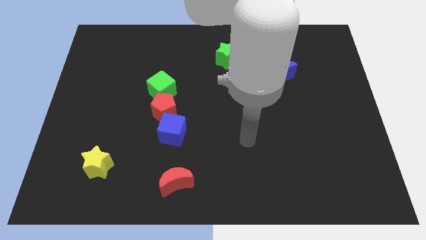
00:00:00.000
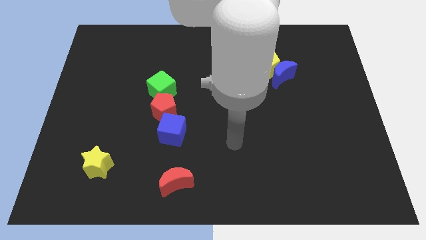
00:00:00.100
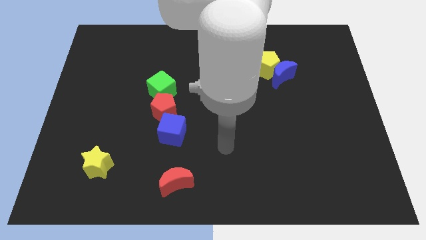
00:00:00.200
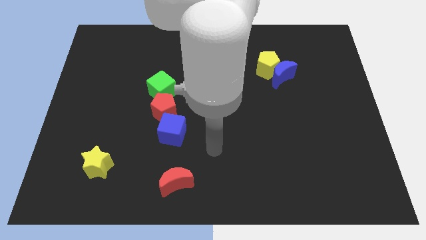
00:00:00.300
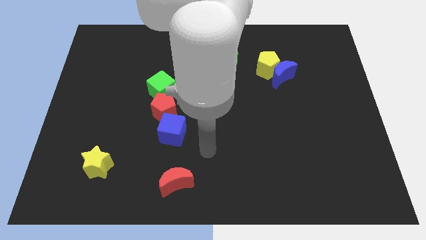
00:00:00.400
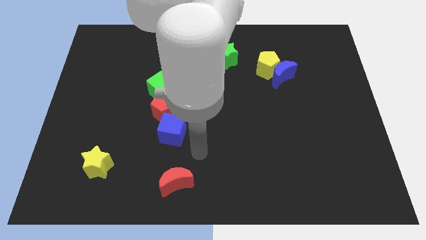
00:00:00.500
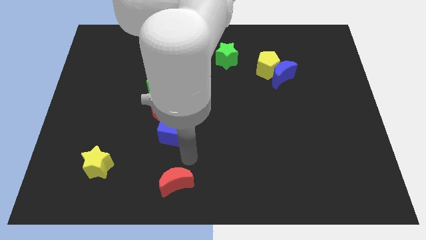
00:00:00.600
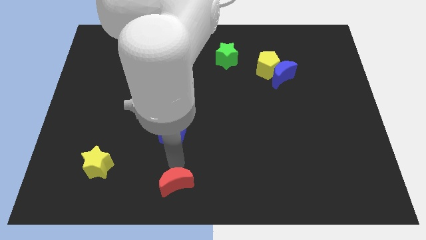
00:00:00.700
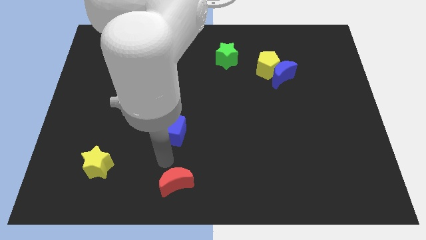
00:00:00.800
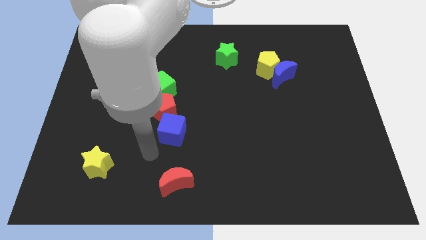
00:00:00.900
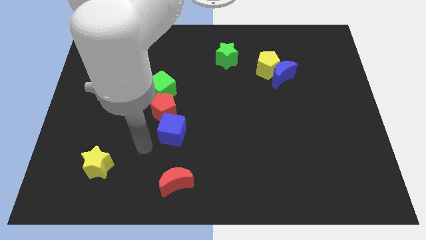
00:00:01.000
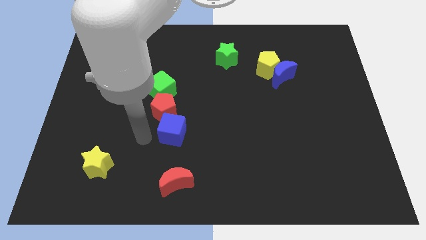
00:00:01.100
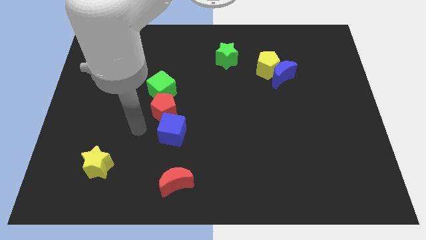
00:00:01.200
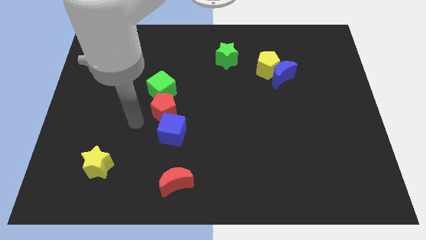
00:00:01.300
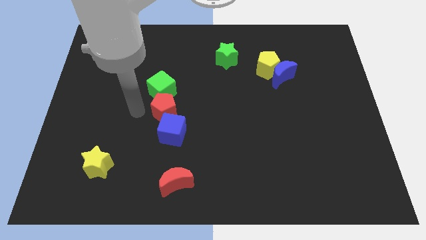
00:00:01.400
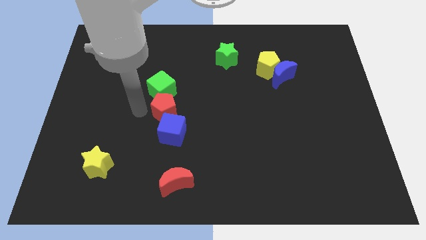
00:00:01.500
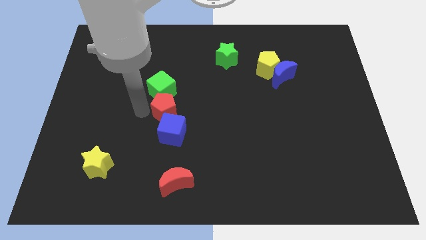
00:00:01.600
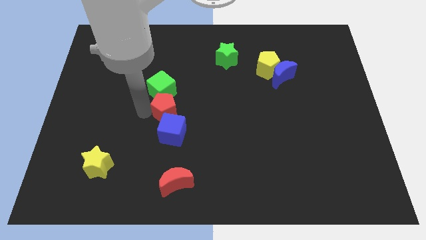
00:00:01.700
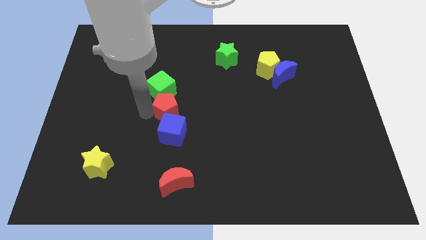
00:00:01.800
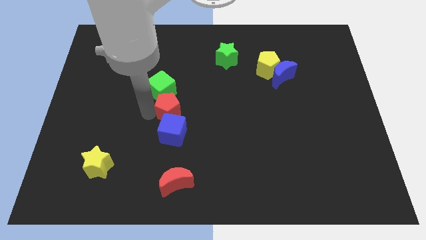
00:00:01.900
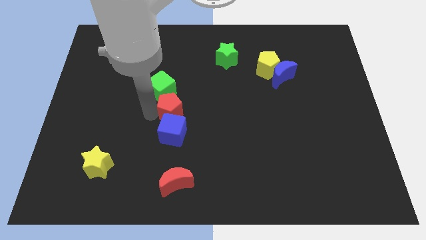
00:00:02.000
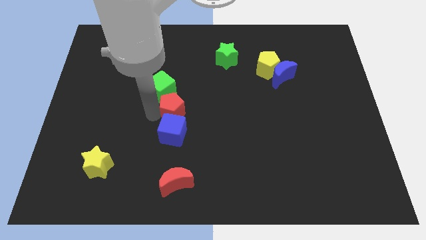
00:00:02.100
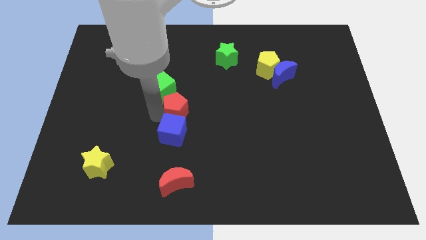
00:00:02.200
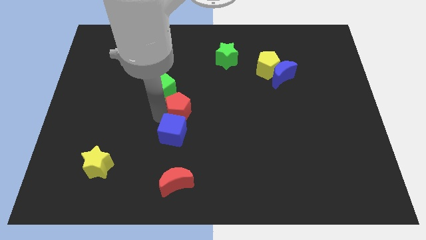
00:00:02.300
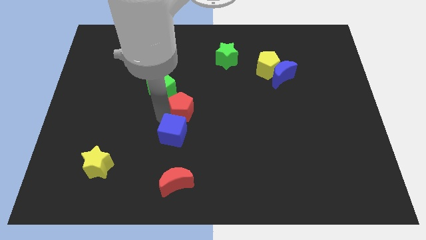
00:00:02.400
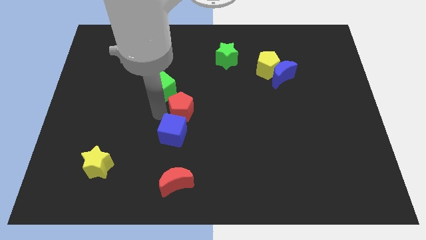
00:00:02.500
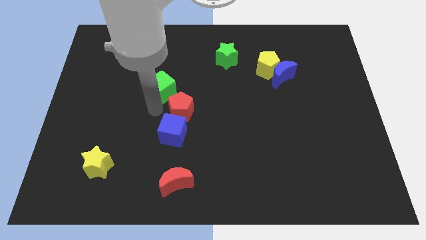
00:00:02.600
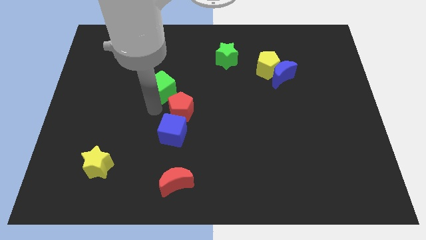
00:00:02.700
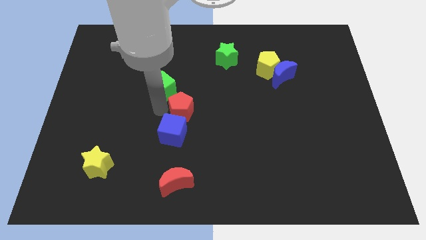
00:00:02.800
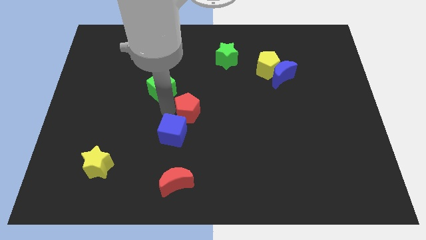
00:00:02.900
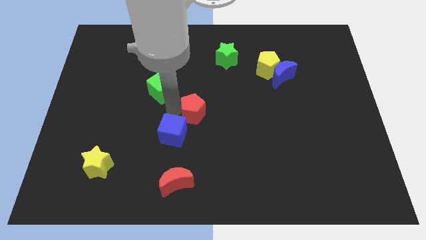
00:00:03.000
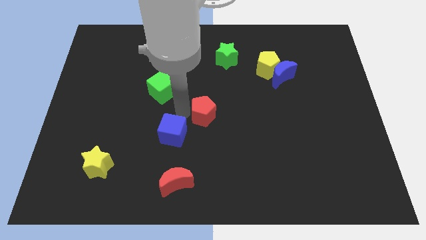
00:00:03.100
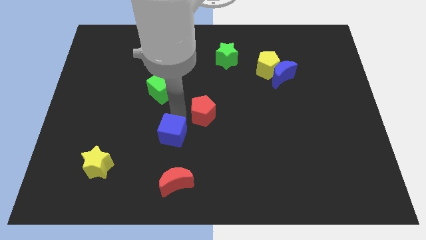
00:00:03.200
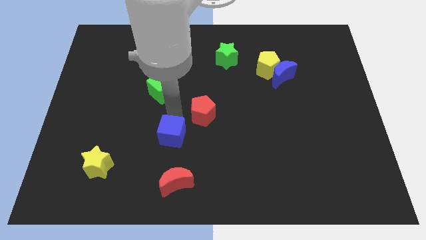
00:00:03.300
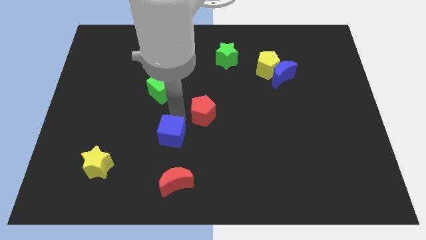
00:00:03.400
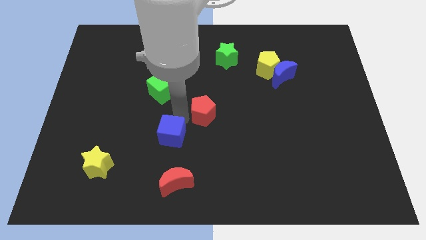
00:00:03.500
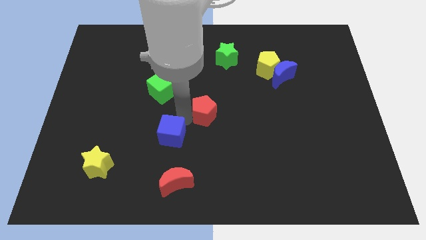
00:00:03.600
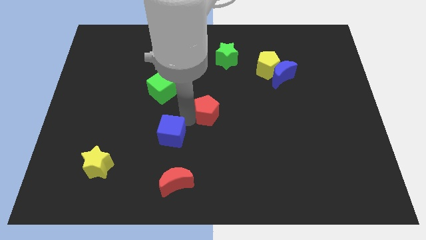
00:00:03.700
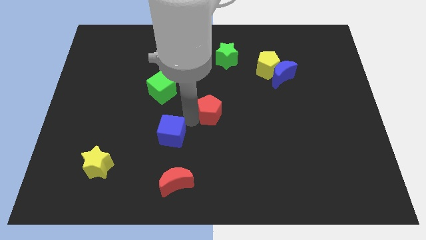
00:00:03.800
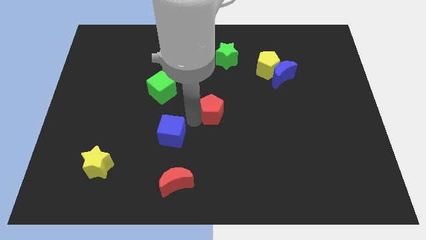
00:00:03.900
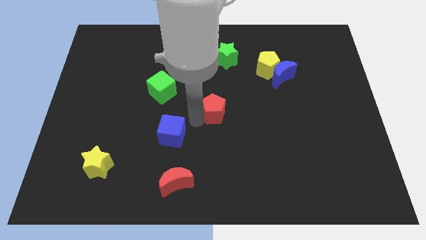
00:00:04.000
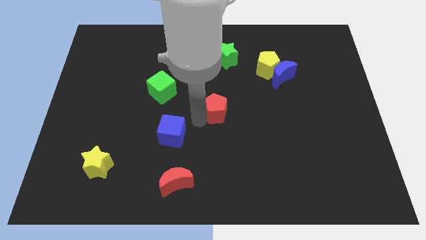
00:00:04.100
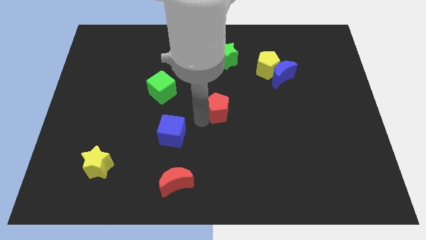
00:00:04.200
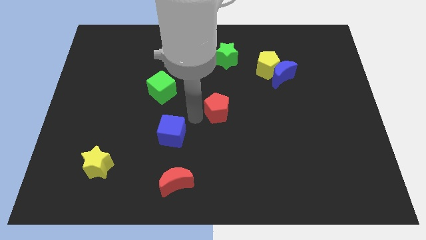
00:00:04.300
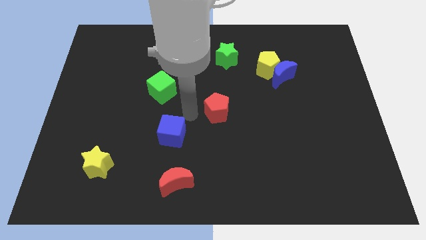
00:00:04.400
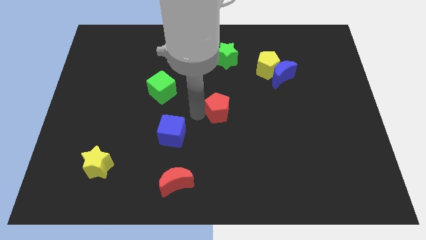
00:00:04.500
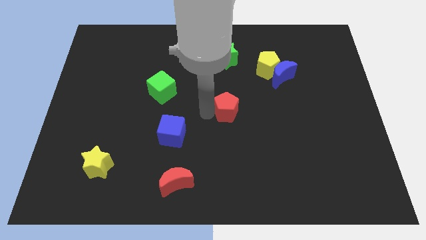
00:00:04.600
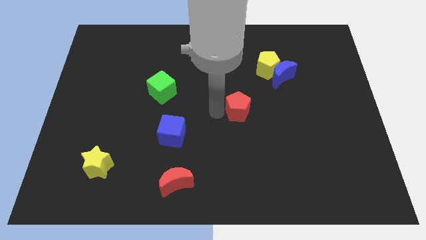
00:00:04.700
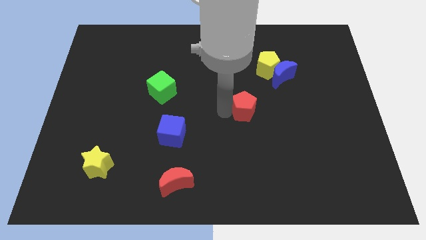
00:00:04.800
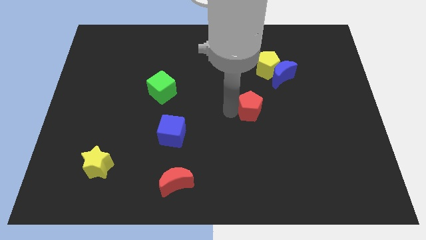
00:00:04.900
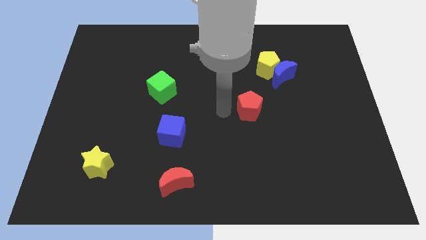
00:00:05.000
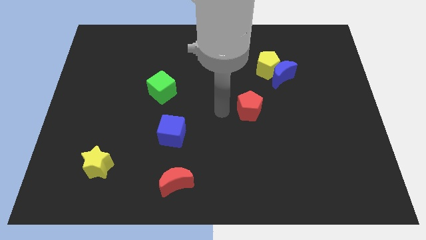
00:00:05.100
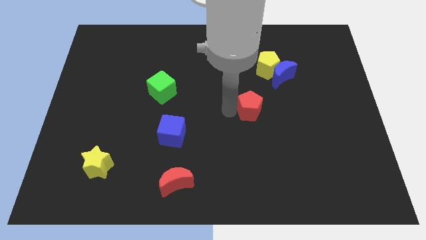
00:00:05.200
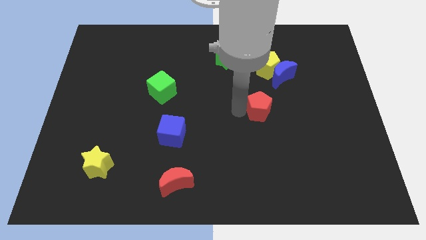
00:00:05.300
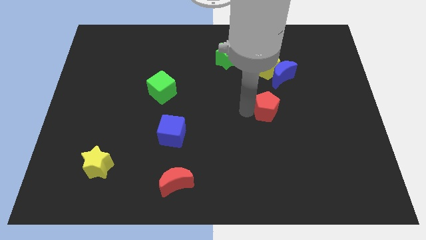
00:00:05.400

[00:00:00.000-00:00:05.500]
push the red pentagon to the bottom side of the blue moon

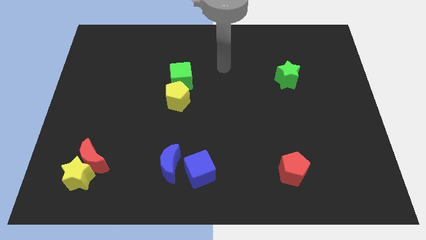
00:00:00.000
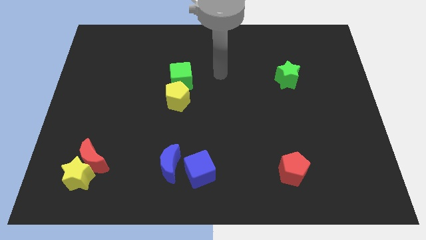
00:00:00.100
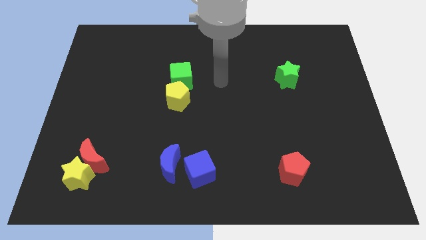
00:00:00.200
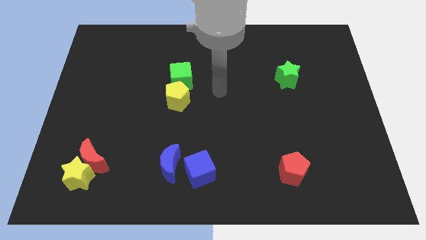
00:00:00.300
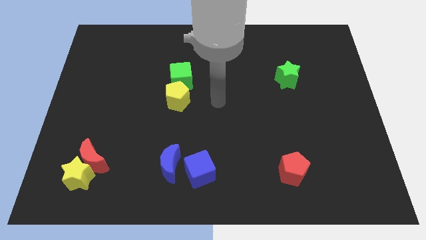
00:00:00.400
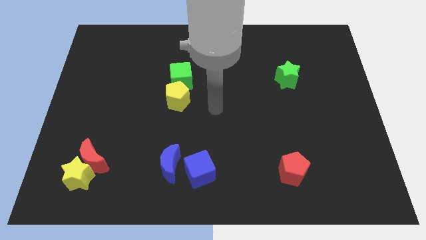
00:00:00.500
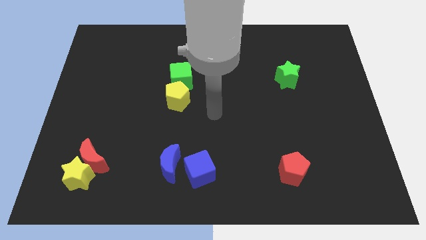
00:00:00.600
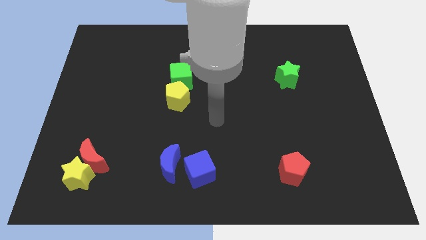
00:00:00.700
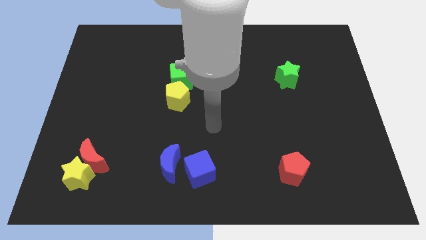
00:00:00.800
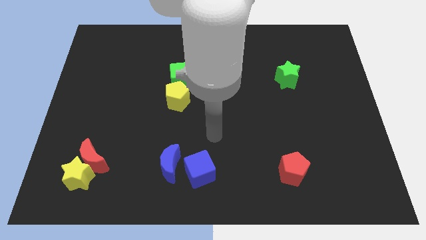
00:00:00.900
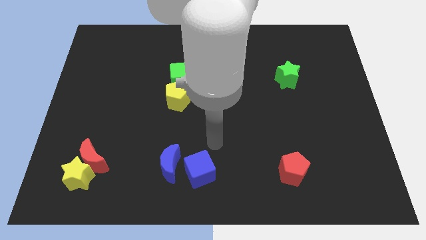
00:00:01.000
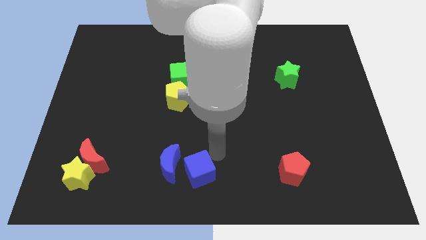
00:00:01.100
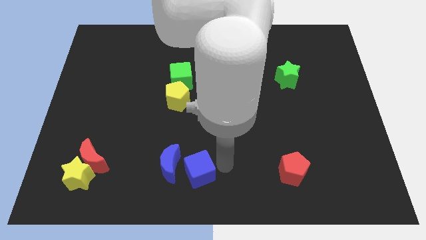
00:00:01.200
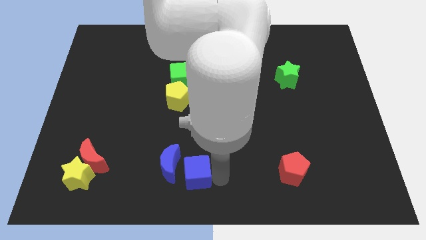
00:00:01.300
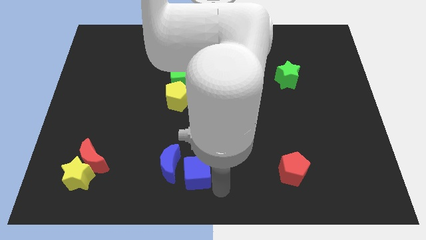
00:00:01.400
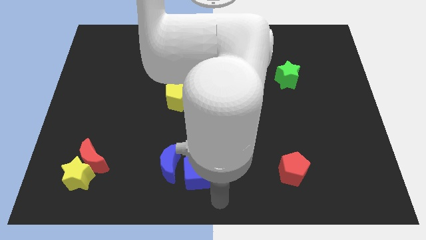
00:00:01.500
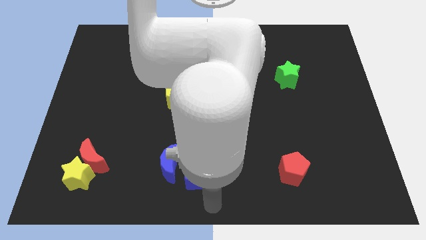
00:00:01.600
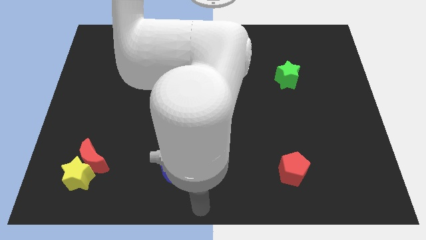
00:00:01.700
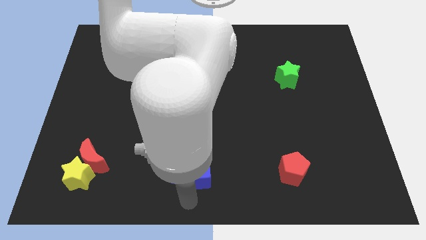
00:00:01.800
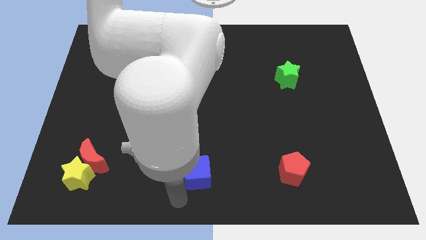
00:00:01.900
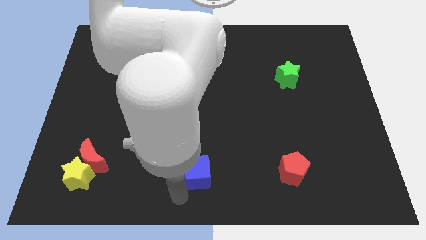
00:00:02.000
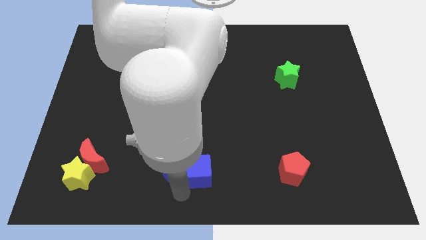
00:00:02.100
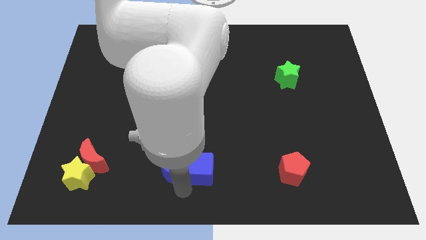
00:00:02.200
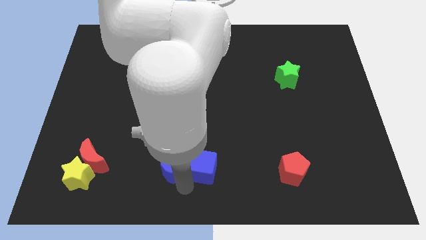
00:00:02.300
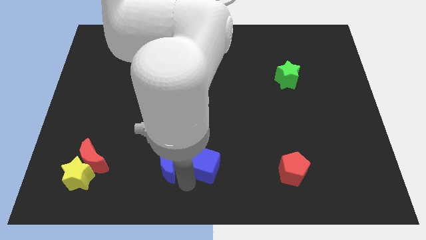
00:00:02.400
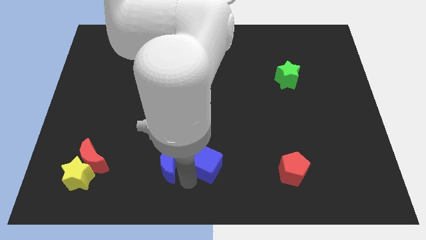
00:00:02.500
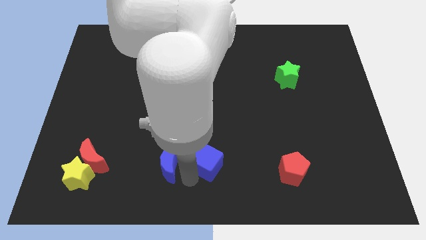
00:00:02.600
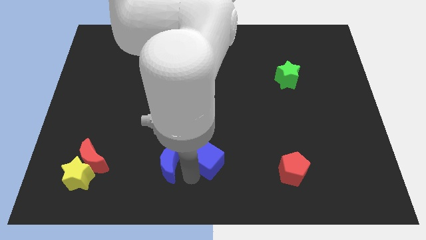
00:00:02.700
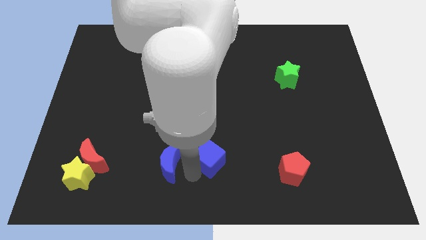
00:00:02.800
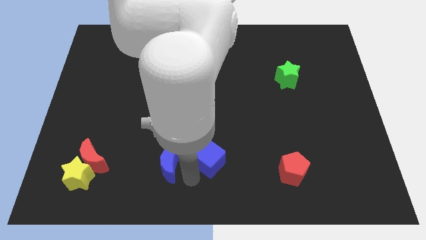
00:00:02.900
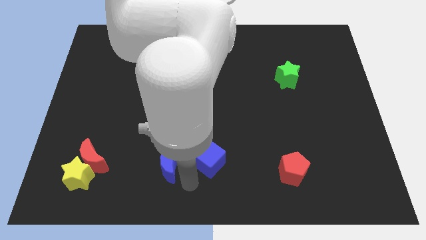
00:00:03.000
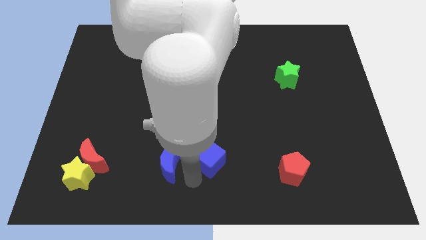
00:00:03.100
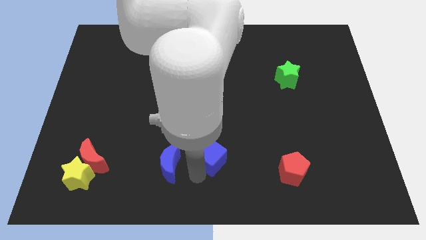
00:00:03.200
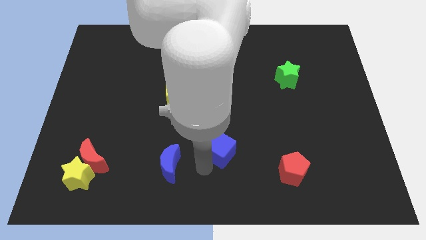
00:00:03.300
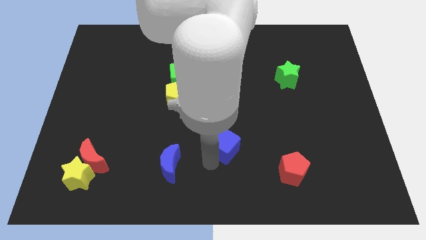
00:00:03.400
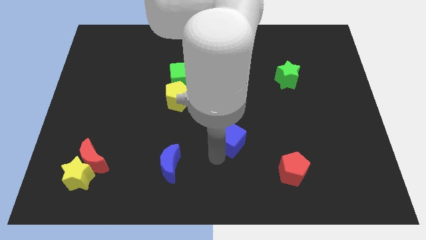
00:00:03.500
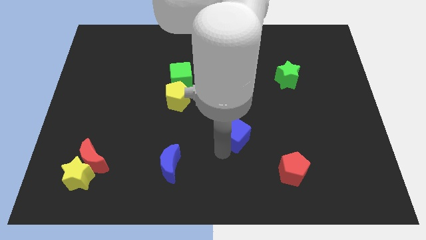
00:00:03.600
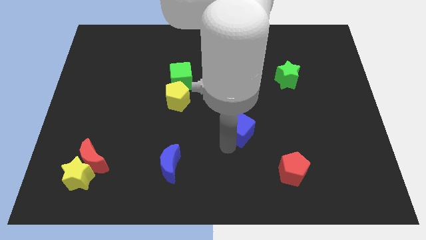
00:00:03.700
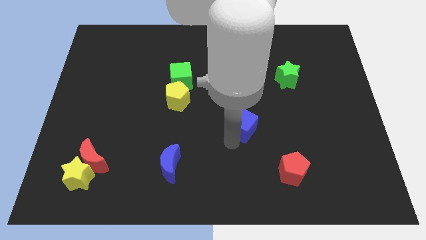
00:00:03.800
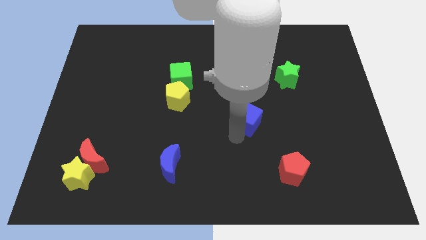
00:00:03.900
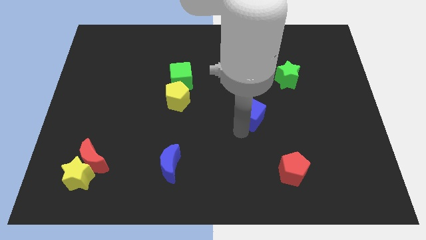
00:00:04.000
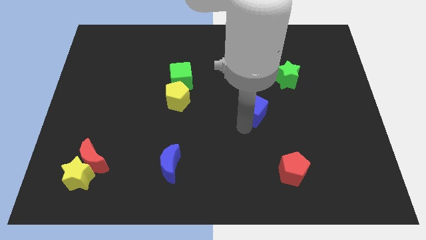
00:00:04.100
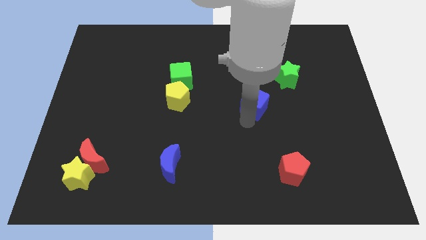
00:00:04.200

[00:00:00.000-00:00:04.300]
move the blue cube diagonally down and to the left of the green star
